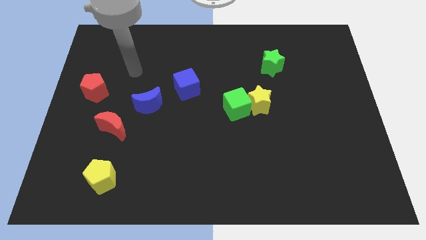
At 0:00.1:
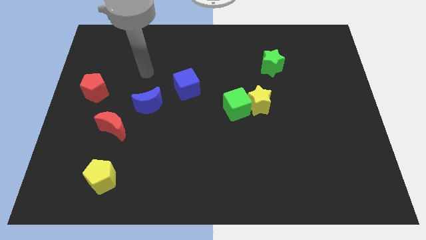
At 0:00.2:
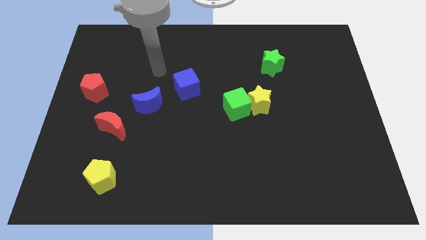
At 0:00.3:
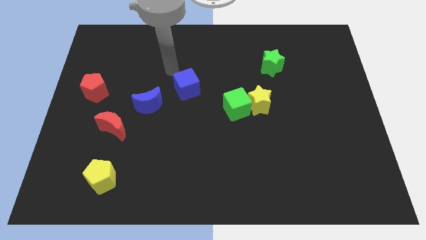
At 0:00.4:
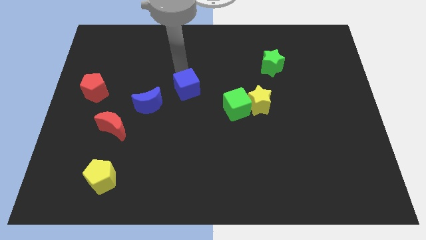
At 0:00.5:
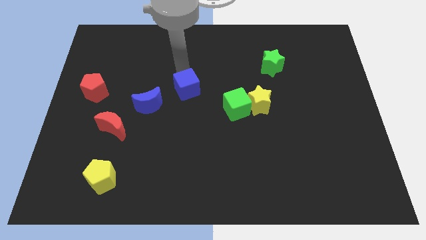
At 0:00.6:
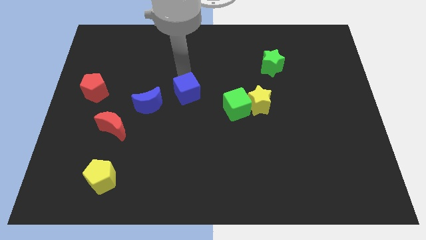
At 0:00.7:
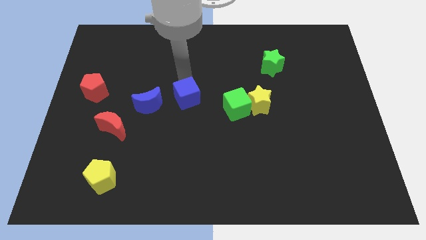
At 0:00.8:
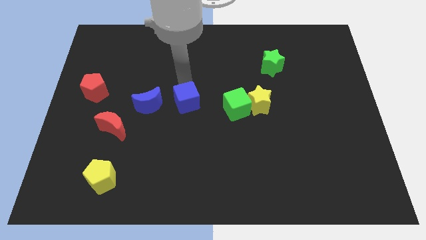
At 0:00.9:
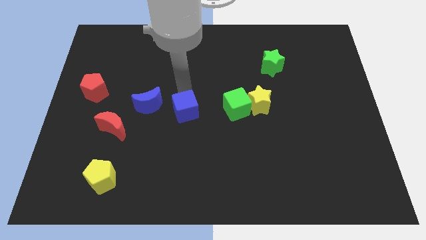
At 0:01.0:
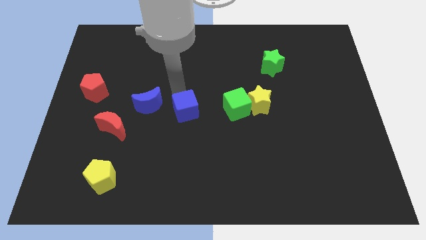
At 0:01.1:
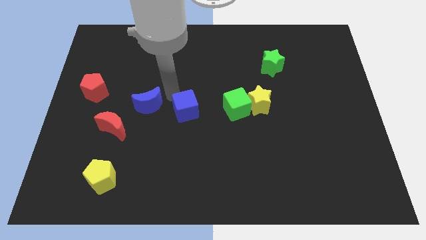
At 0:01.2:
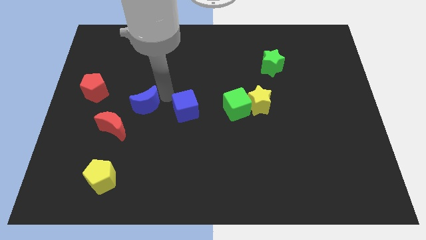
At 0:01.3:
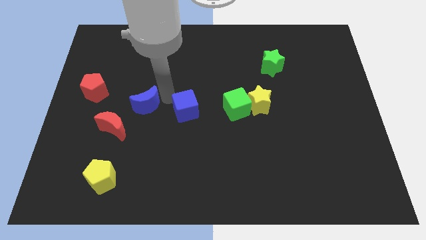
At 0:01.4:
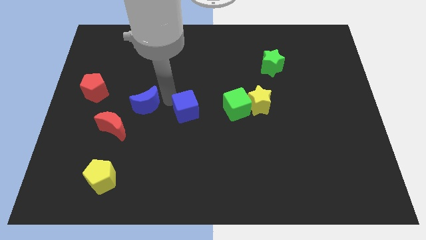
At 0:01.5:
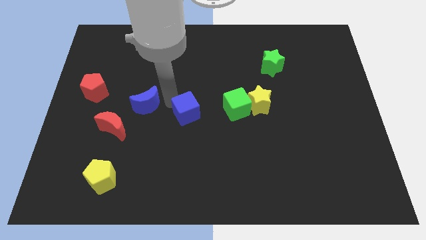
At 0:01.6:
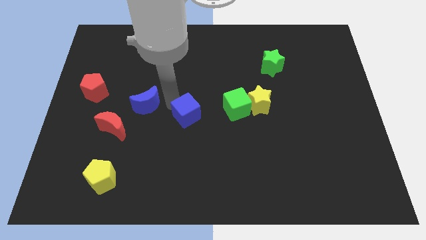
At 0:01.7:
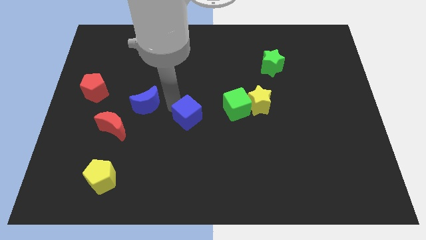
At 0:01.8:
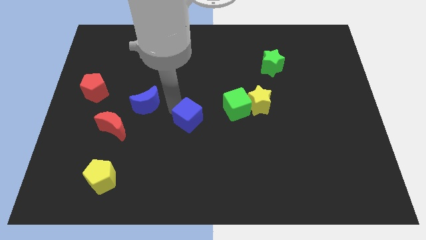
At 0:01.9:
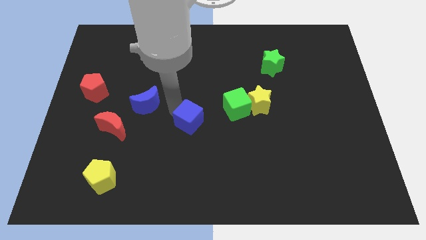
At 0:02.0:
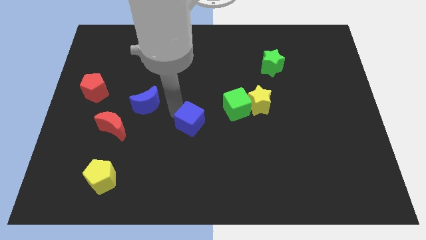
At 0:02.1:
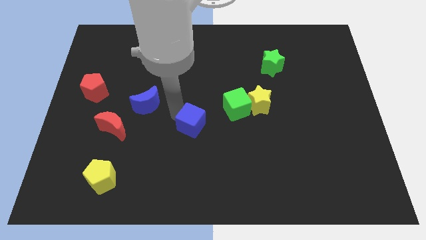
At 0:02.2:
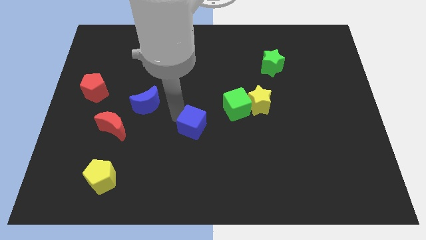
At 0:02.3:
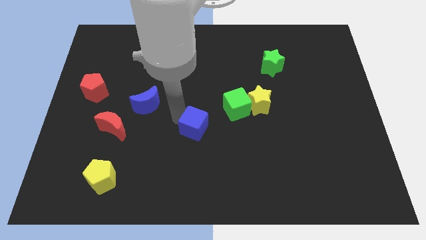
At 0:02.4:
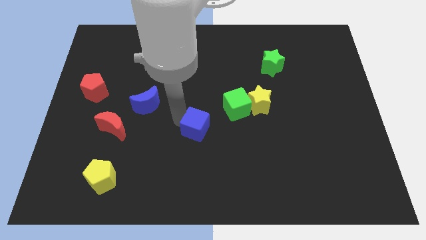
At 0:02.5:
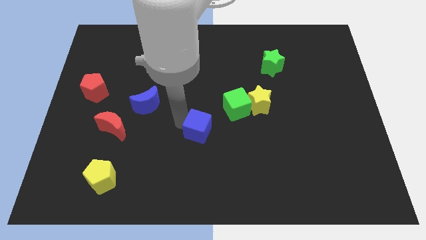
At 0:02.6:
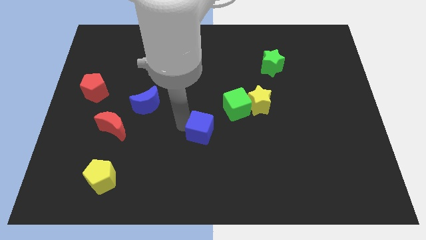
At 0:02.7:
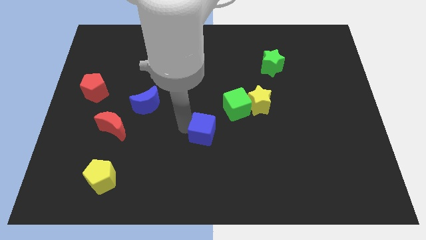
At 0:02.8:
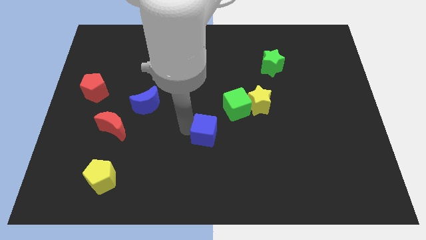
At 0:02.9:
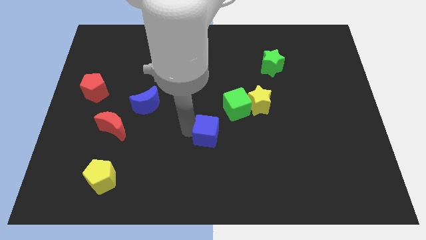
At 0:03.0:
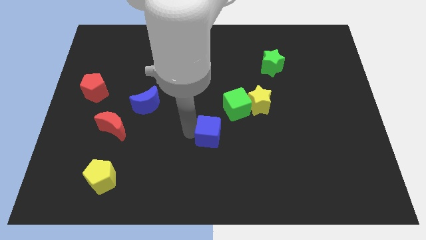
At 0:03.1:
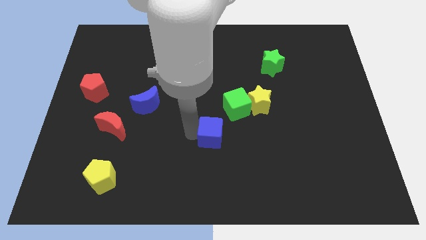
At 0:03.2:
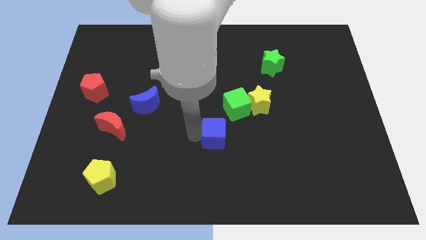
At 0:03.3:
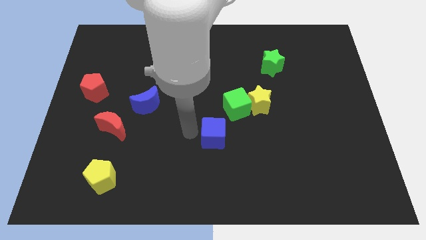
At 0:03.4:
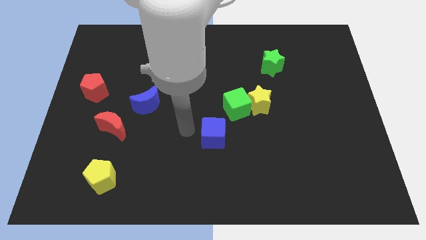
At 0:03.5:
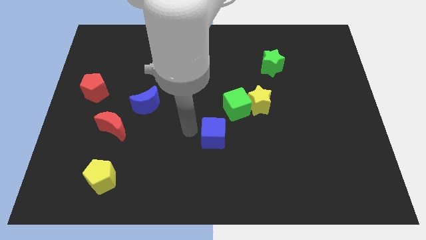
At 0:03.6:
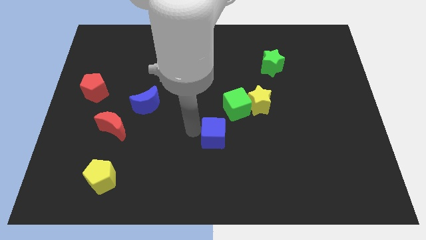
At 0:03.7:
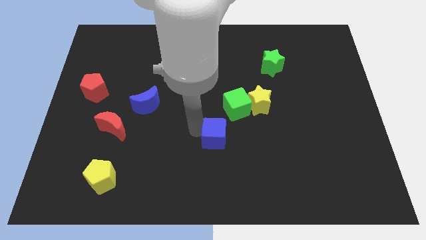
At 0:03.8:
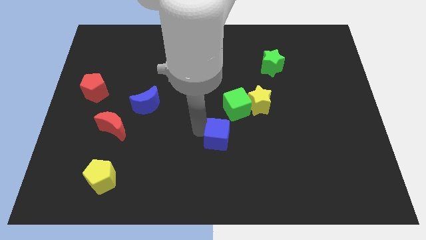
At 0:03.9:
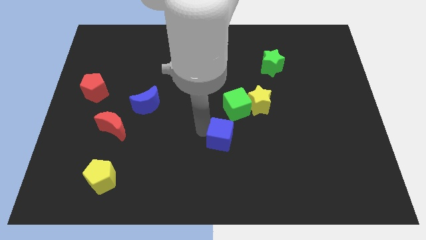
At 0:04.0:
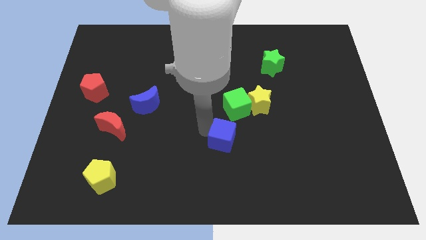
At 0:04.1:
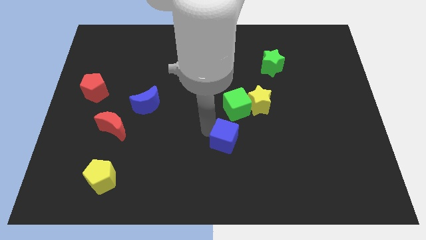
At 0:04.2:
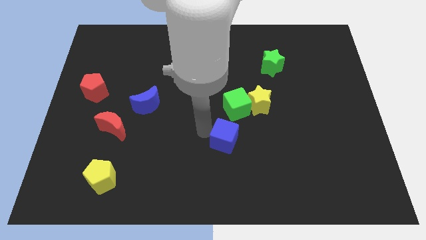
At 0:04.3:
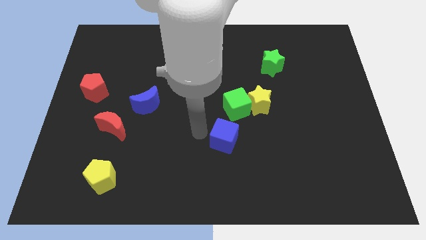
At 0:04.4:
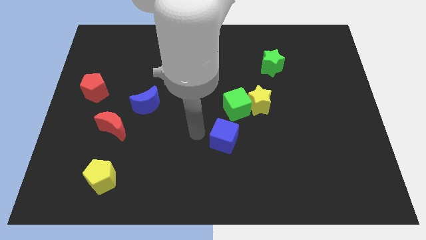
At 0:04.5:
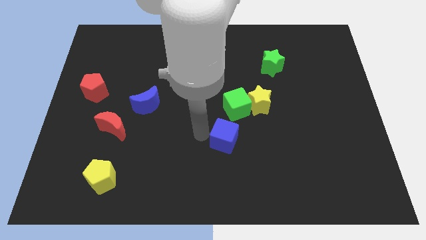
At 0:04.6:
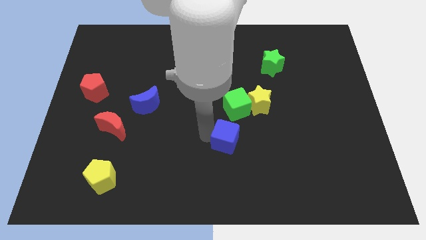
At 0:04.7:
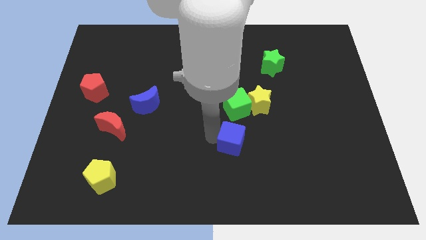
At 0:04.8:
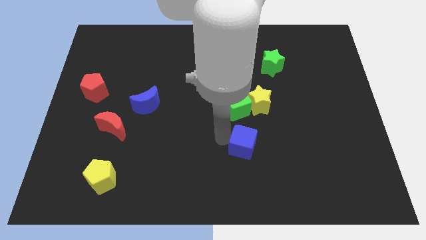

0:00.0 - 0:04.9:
push the blue cube down and then to the right

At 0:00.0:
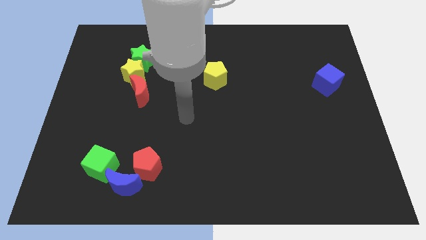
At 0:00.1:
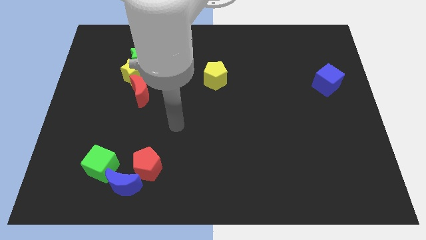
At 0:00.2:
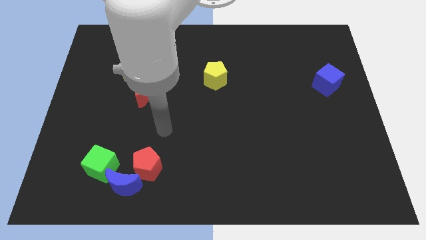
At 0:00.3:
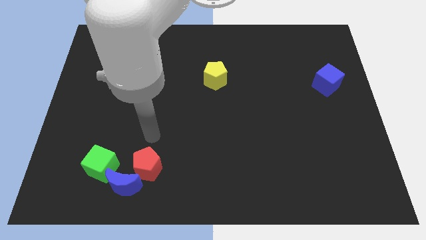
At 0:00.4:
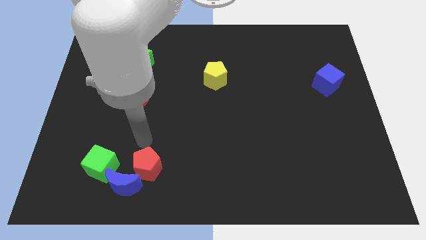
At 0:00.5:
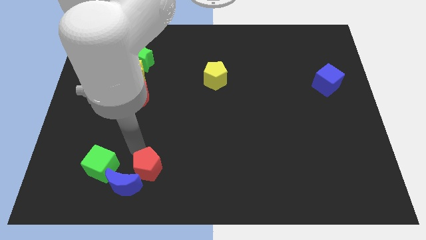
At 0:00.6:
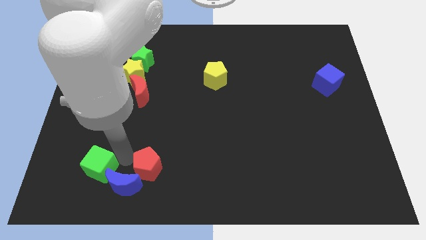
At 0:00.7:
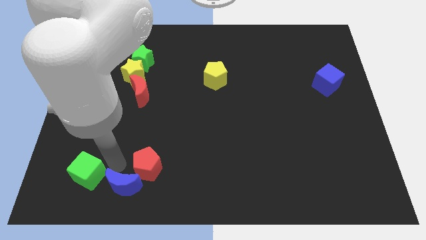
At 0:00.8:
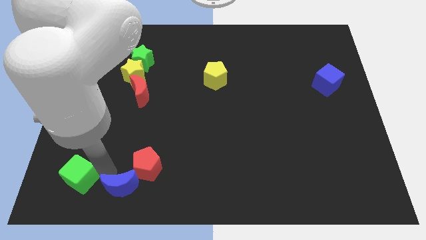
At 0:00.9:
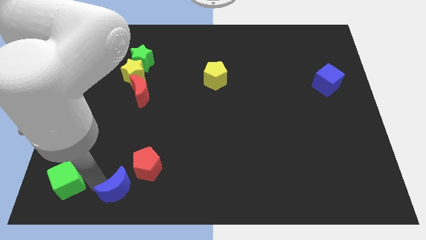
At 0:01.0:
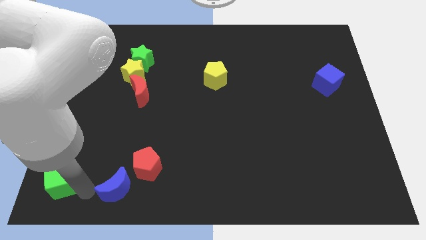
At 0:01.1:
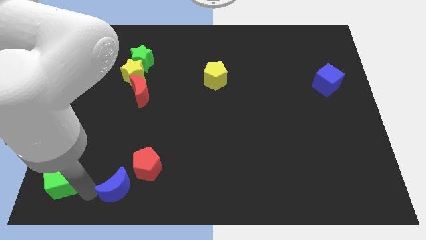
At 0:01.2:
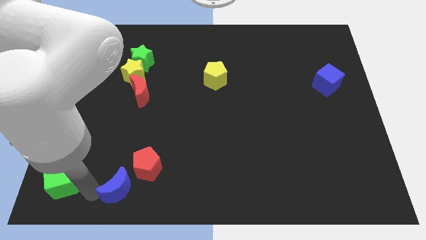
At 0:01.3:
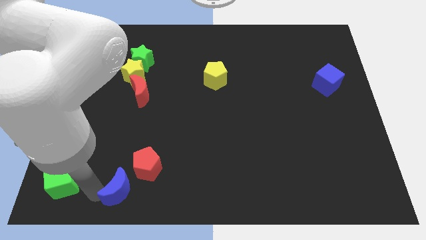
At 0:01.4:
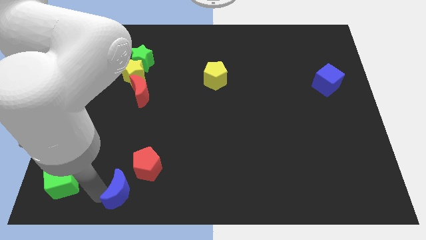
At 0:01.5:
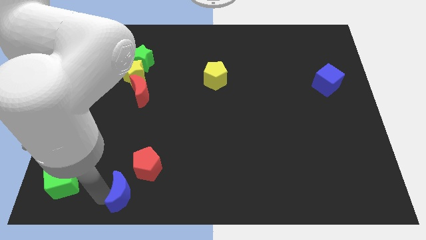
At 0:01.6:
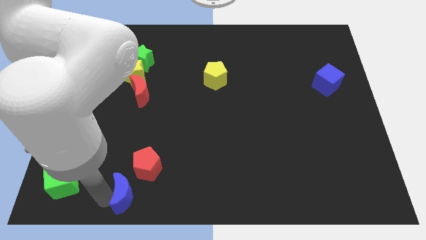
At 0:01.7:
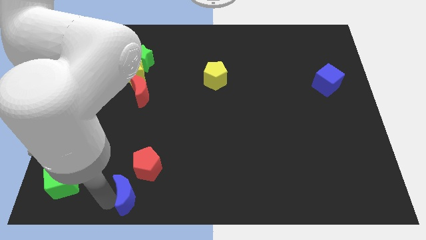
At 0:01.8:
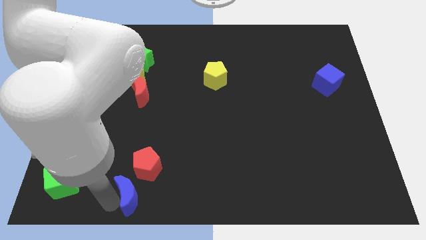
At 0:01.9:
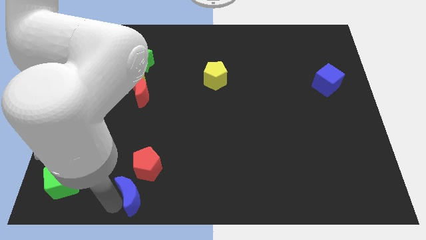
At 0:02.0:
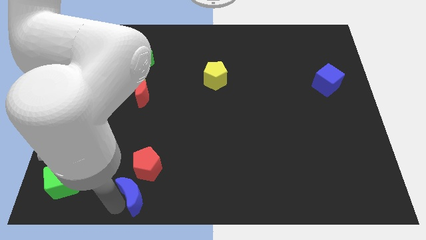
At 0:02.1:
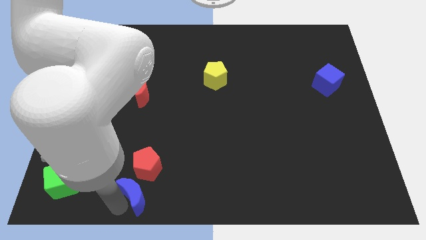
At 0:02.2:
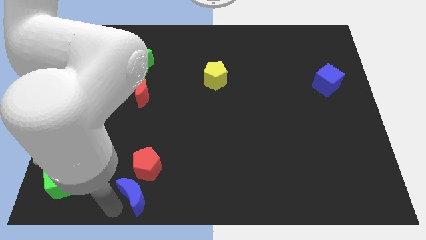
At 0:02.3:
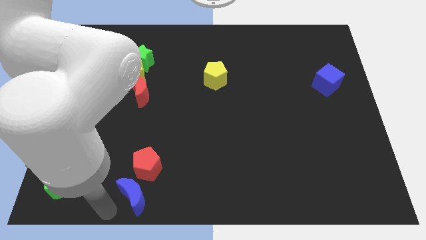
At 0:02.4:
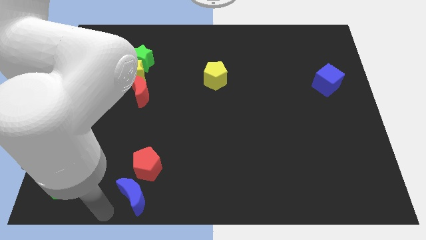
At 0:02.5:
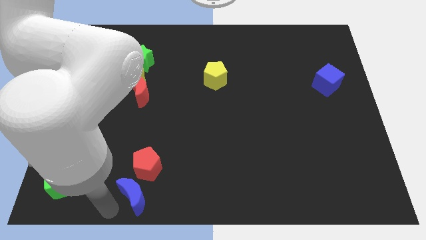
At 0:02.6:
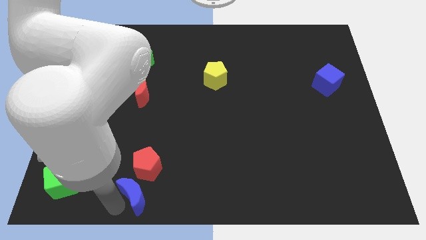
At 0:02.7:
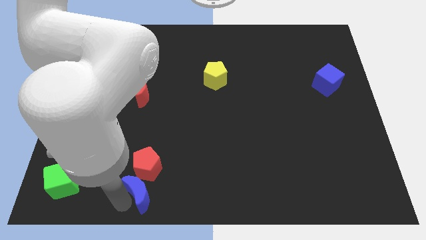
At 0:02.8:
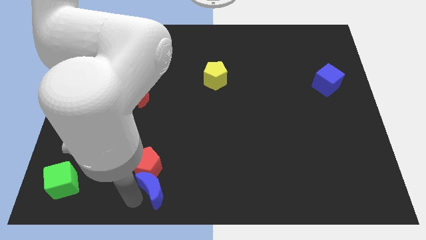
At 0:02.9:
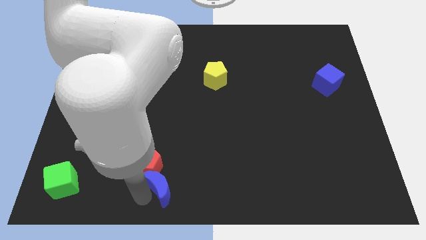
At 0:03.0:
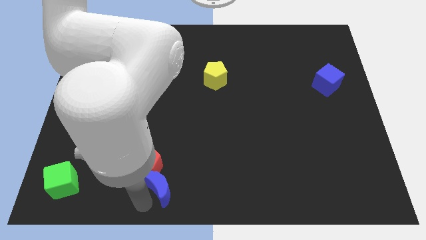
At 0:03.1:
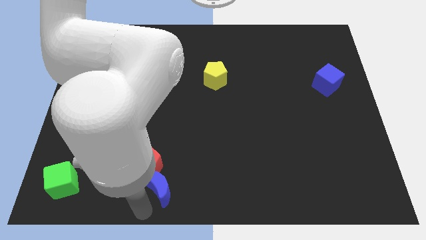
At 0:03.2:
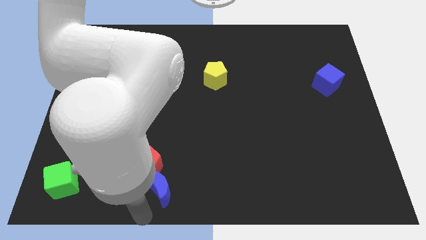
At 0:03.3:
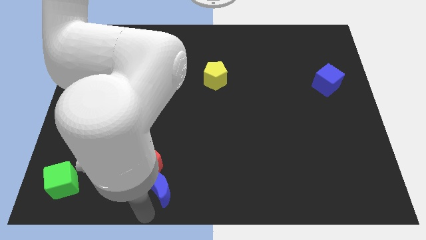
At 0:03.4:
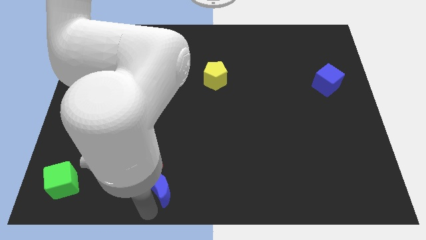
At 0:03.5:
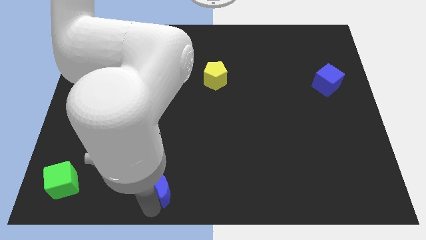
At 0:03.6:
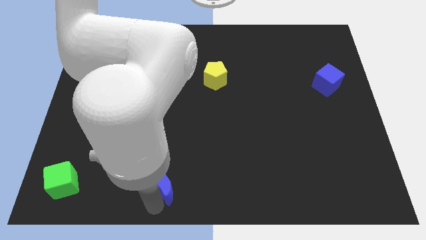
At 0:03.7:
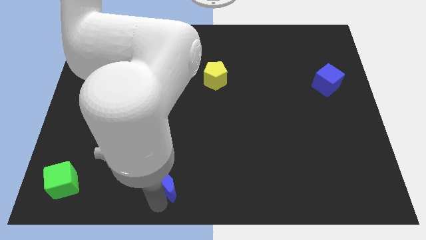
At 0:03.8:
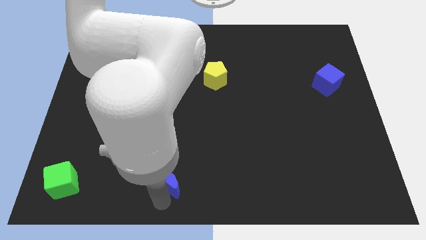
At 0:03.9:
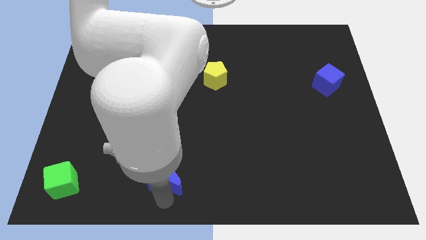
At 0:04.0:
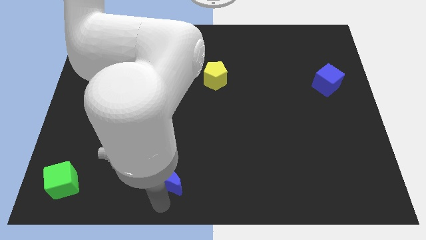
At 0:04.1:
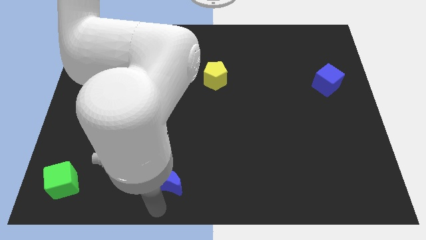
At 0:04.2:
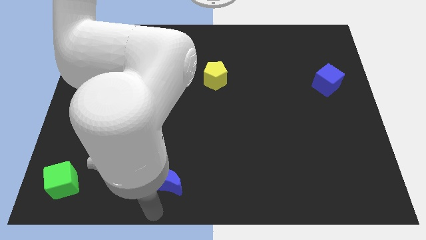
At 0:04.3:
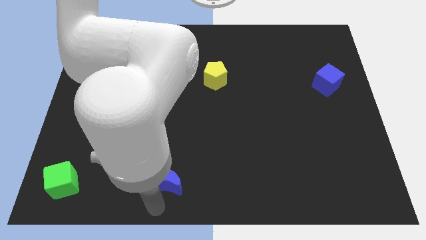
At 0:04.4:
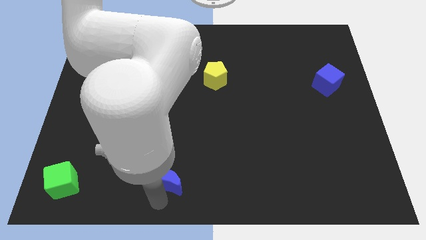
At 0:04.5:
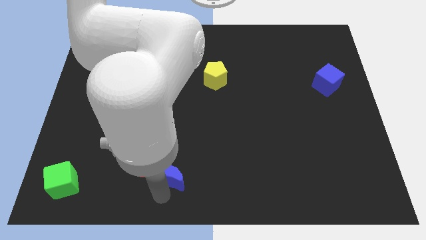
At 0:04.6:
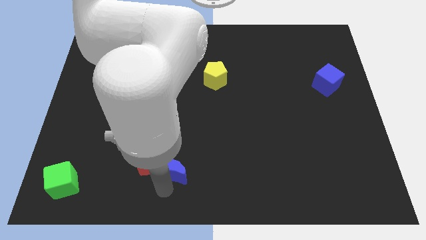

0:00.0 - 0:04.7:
move the blue moon diagonally up and to the right a little bit
